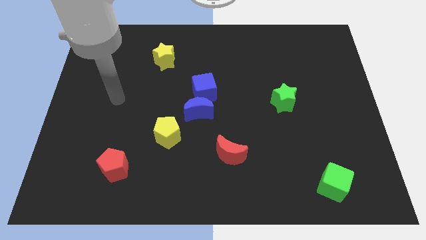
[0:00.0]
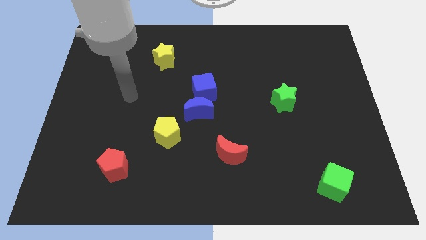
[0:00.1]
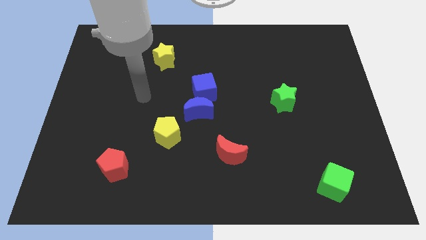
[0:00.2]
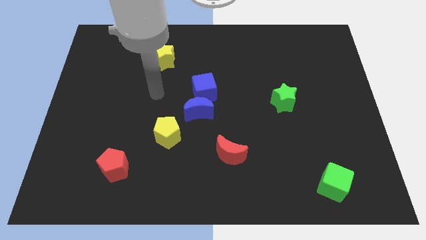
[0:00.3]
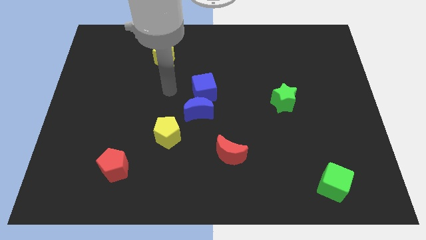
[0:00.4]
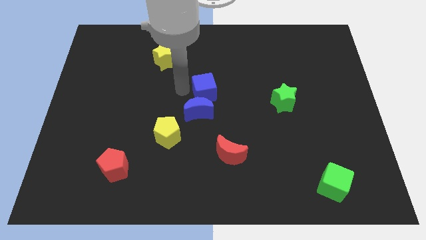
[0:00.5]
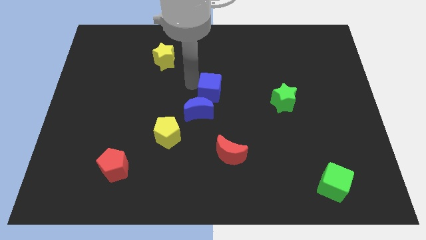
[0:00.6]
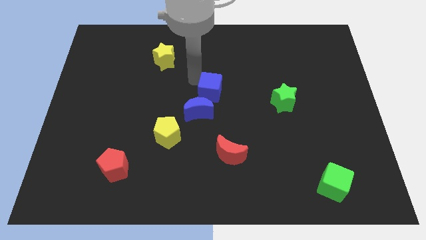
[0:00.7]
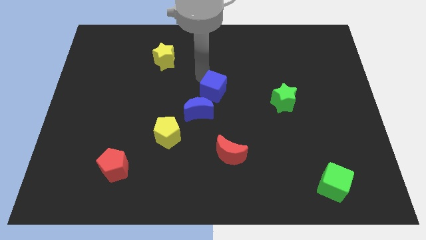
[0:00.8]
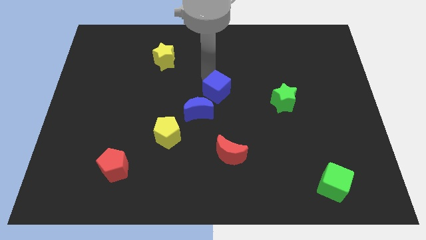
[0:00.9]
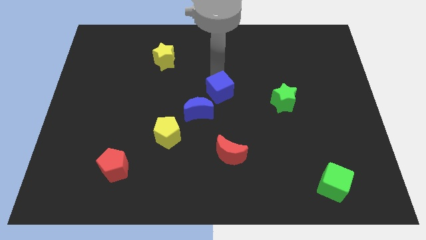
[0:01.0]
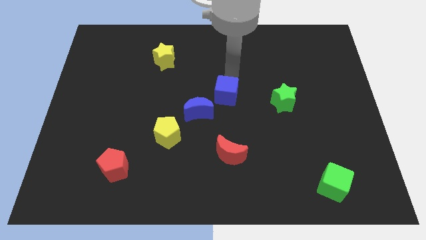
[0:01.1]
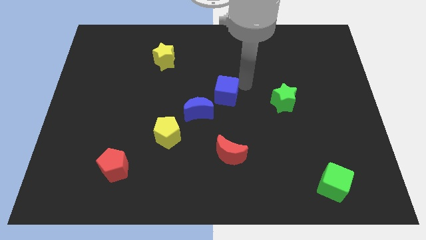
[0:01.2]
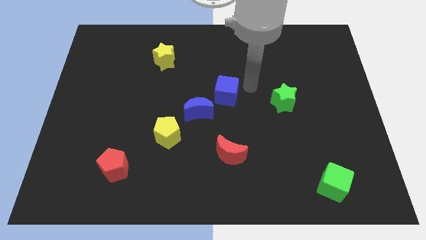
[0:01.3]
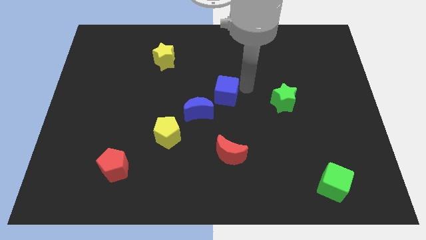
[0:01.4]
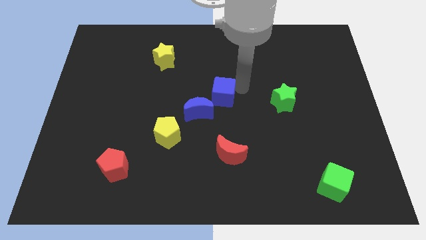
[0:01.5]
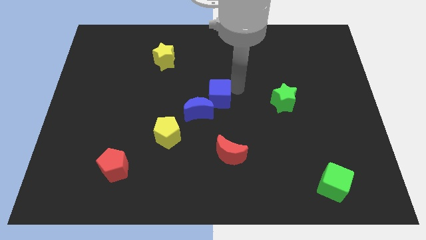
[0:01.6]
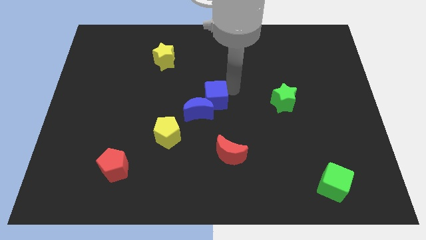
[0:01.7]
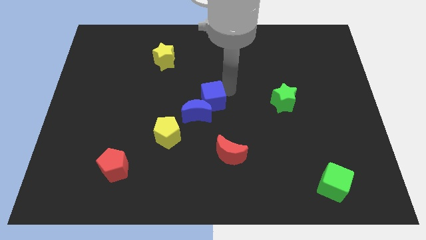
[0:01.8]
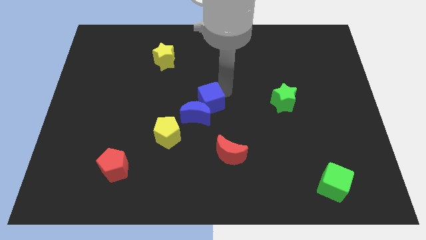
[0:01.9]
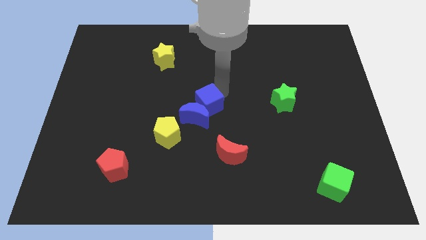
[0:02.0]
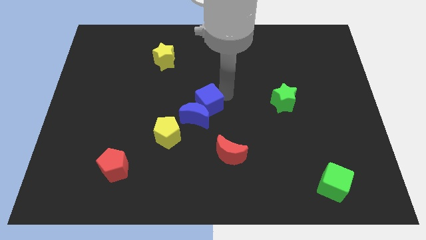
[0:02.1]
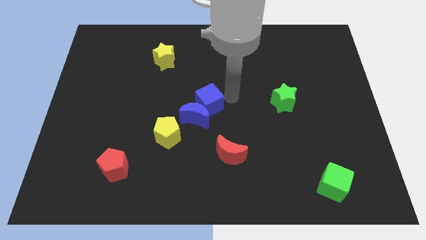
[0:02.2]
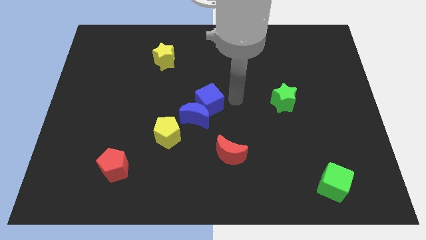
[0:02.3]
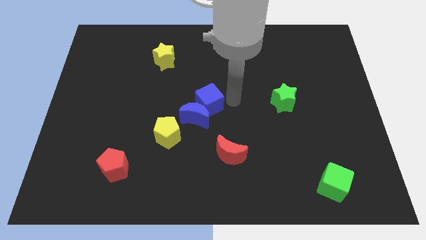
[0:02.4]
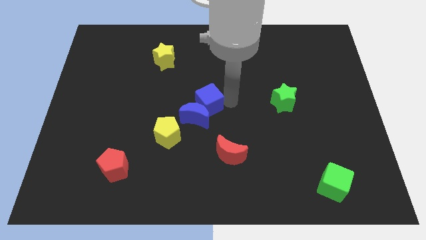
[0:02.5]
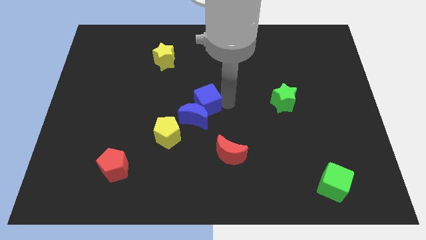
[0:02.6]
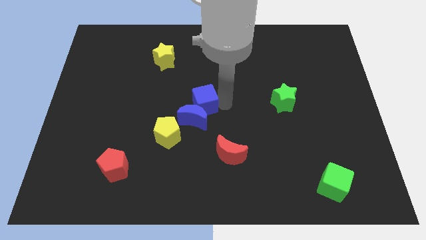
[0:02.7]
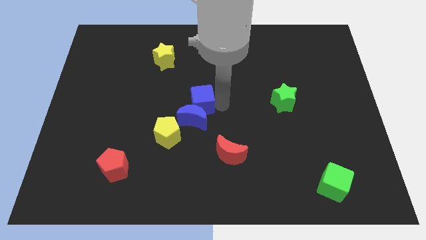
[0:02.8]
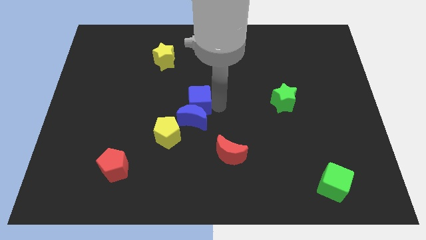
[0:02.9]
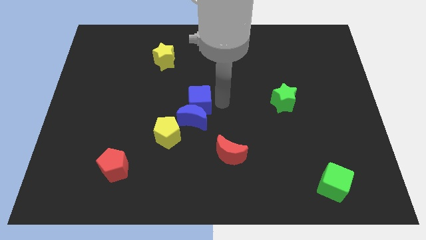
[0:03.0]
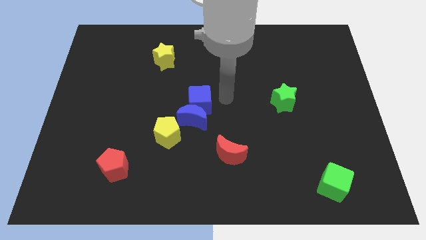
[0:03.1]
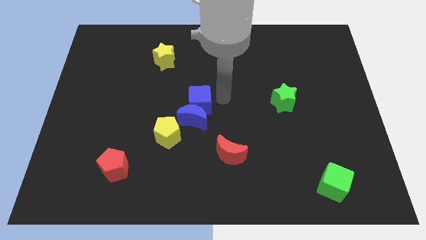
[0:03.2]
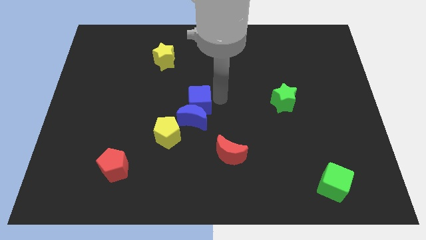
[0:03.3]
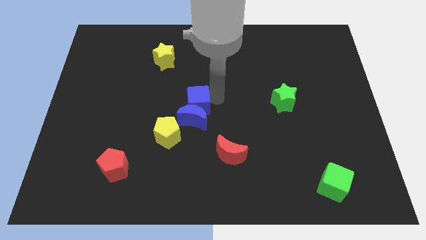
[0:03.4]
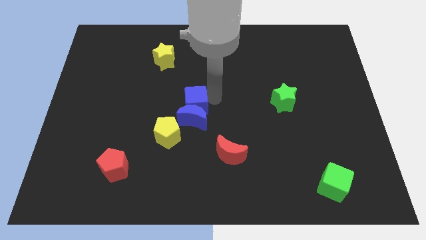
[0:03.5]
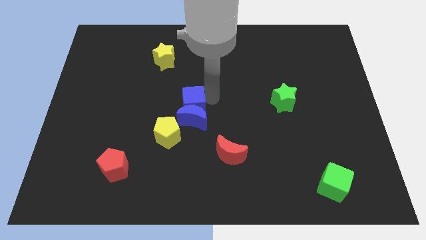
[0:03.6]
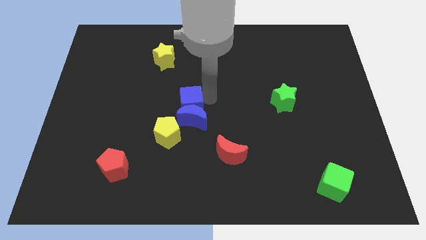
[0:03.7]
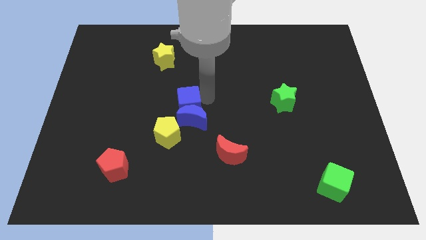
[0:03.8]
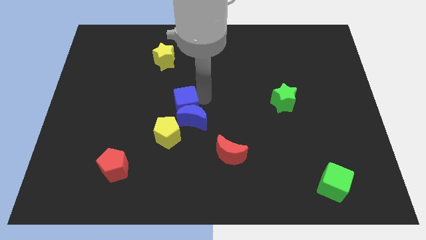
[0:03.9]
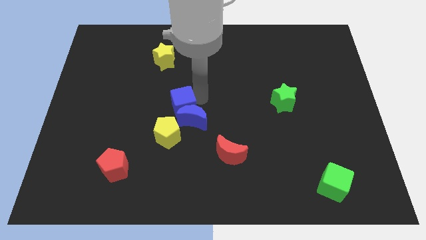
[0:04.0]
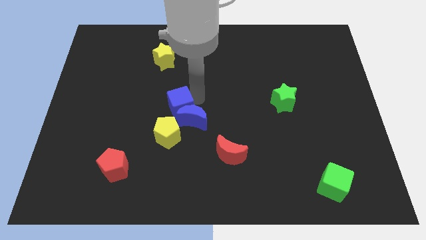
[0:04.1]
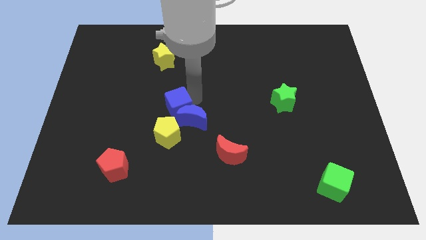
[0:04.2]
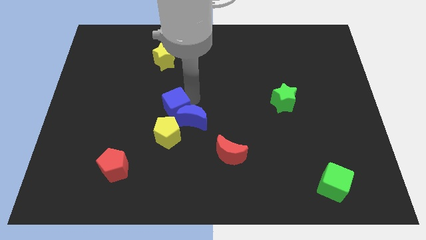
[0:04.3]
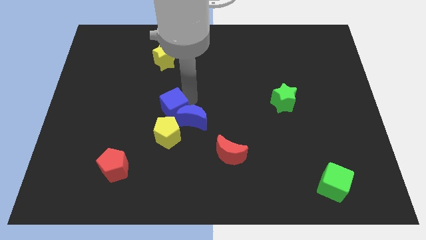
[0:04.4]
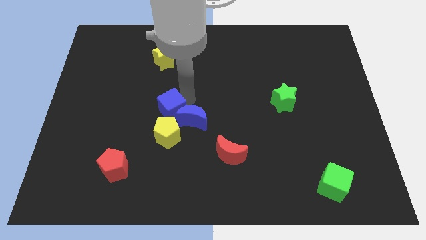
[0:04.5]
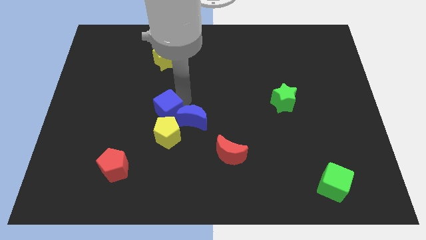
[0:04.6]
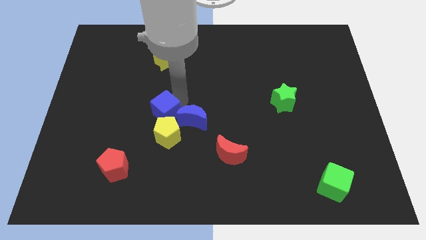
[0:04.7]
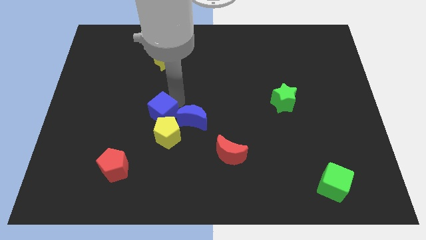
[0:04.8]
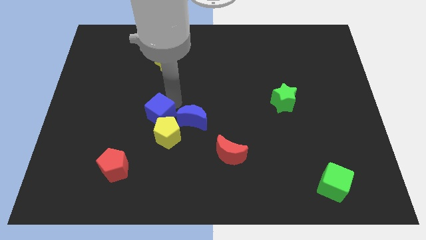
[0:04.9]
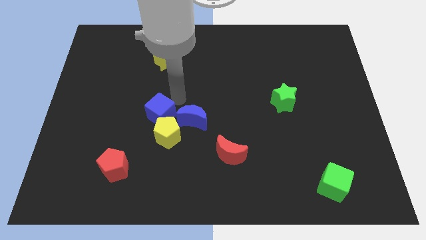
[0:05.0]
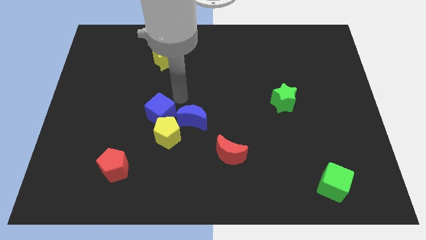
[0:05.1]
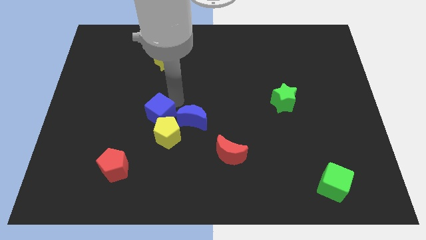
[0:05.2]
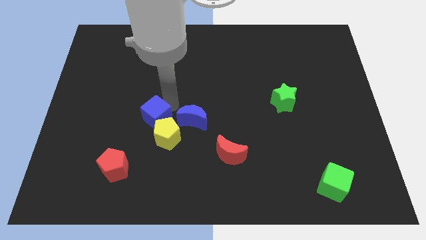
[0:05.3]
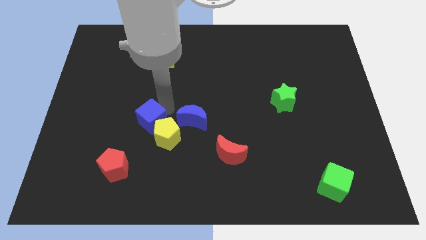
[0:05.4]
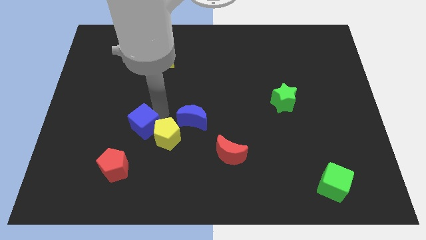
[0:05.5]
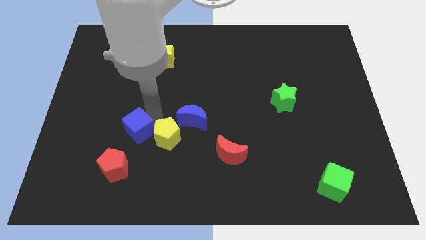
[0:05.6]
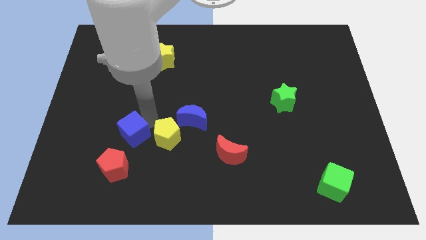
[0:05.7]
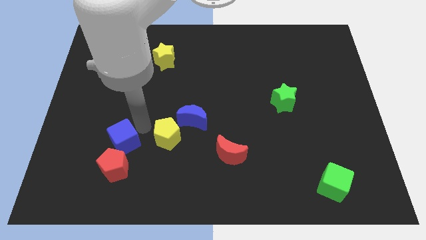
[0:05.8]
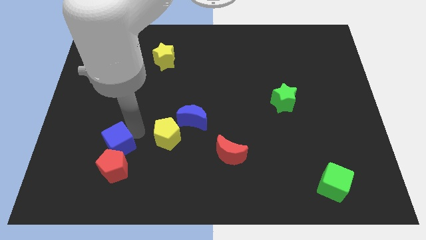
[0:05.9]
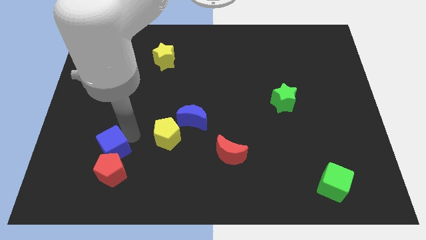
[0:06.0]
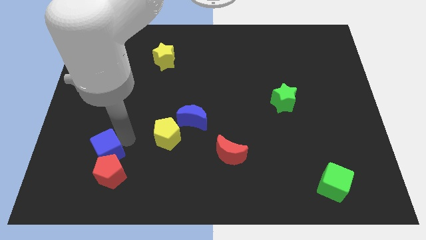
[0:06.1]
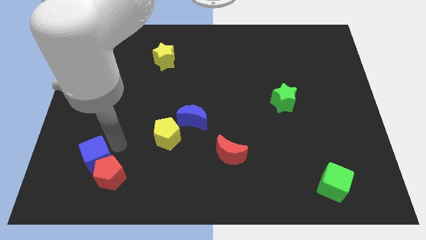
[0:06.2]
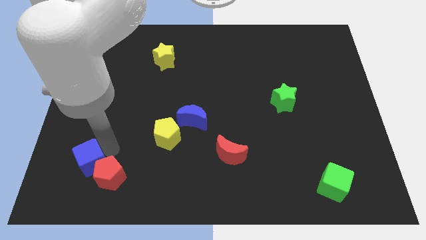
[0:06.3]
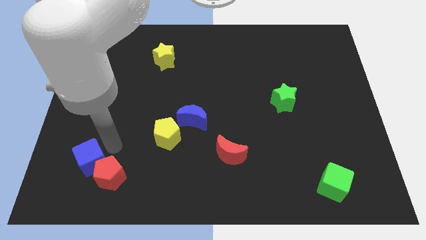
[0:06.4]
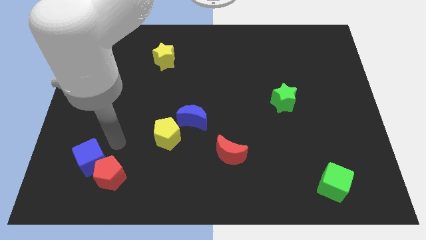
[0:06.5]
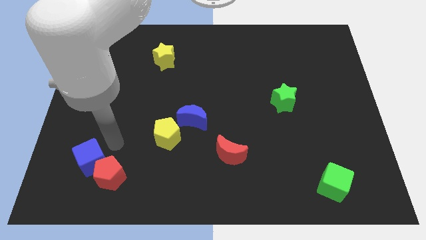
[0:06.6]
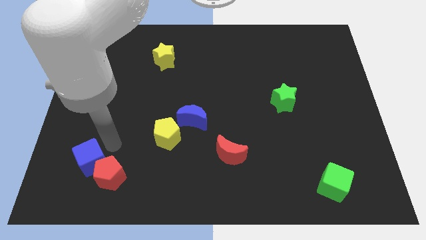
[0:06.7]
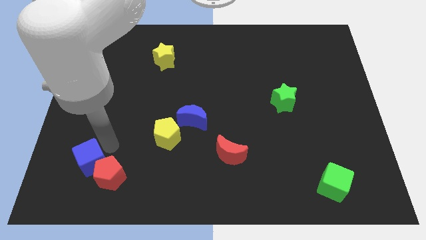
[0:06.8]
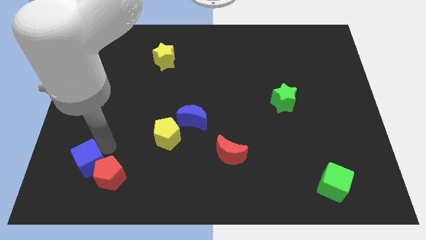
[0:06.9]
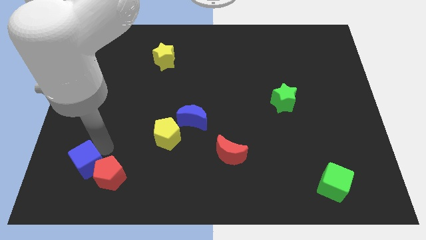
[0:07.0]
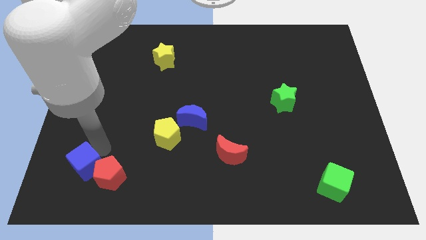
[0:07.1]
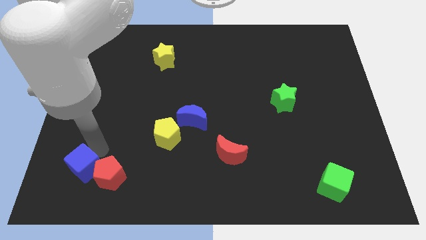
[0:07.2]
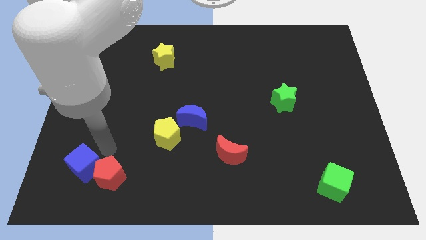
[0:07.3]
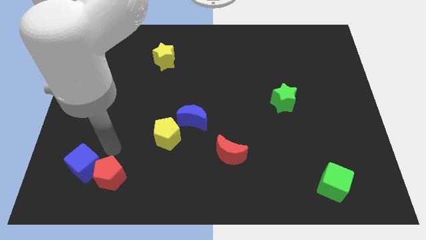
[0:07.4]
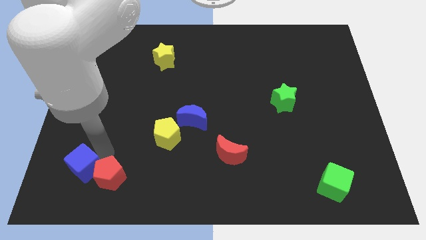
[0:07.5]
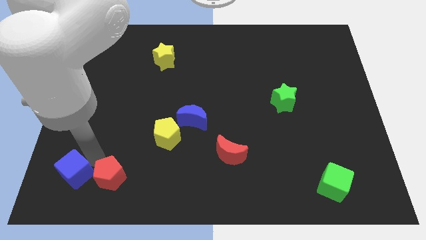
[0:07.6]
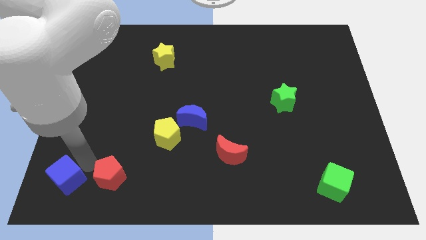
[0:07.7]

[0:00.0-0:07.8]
push the blue cube to the bottom left of the board
